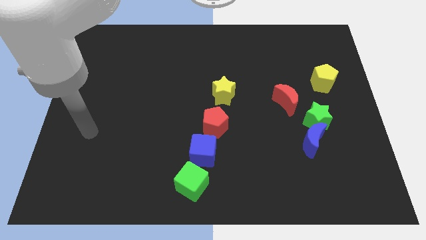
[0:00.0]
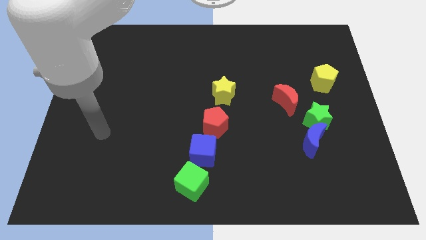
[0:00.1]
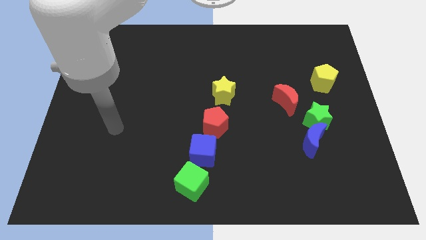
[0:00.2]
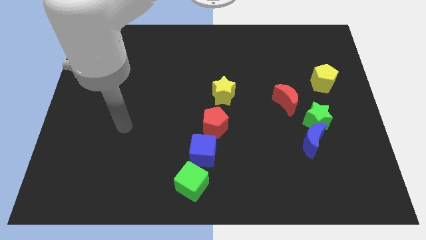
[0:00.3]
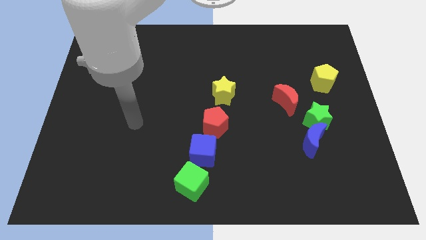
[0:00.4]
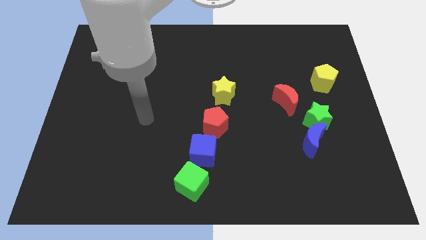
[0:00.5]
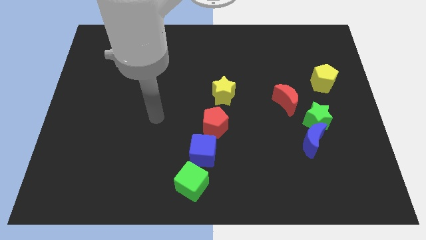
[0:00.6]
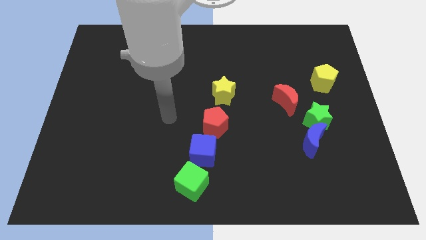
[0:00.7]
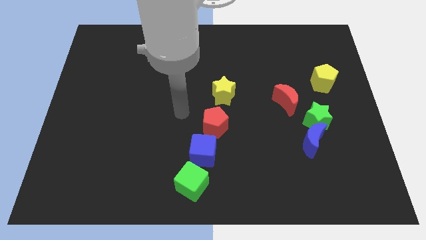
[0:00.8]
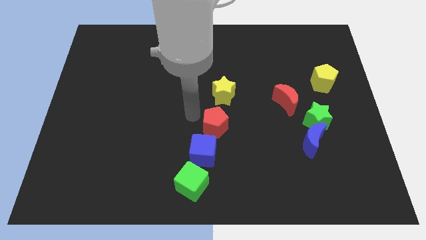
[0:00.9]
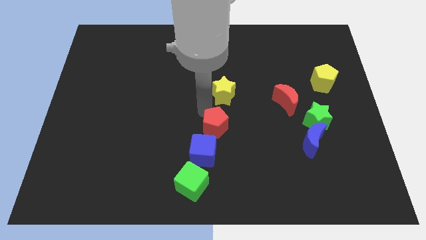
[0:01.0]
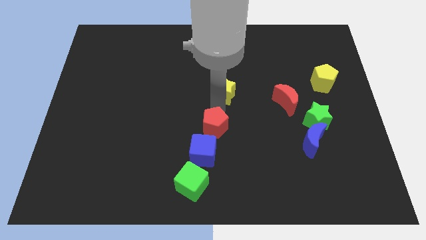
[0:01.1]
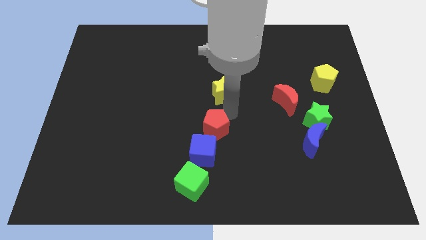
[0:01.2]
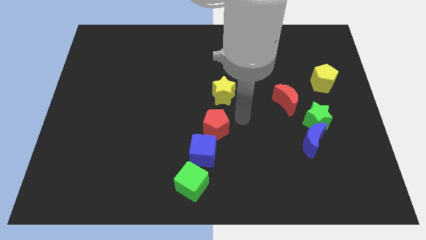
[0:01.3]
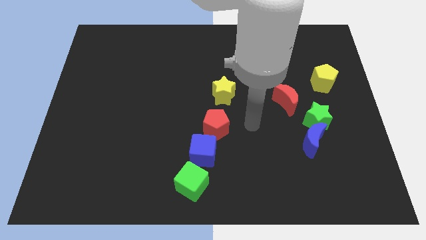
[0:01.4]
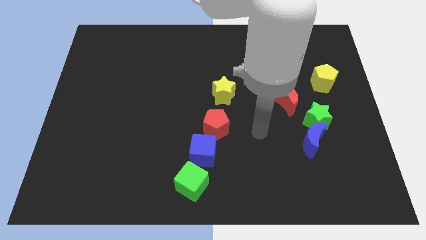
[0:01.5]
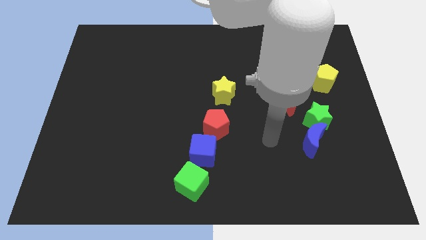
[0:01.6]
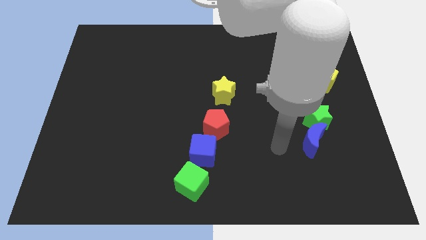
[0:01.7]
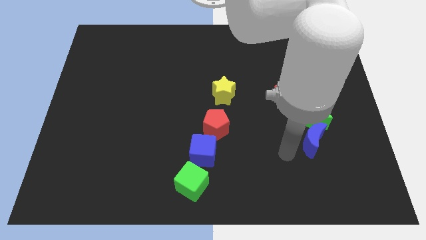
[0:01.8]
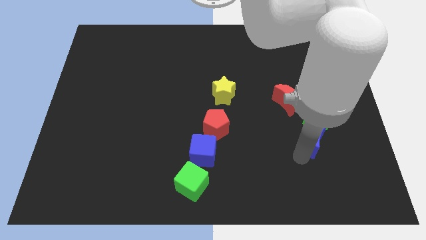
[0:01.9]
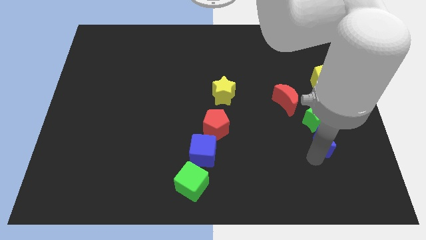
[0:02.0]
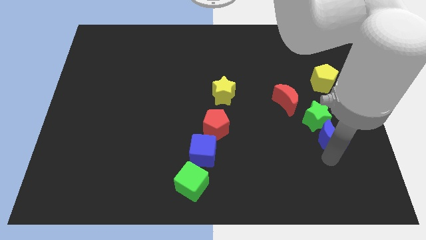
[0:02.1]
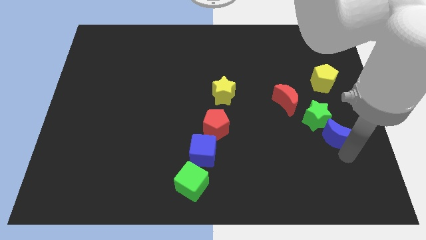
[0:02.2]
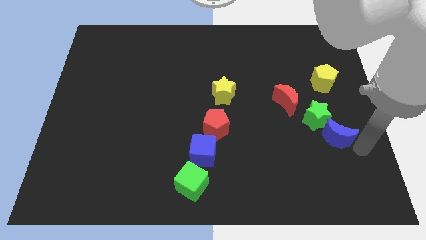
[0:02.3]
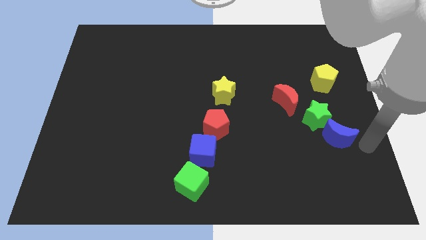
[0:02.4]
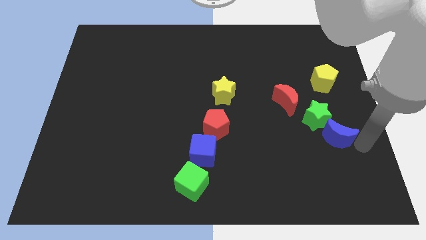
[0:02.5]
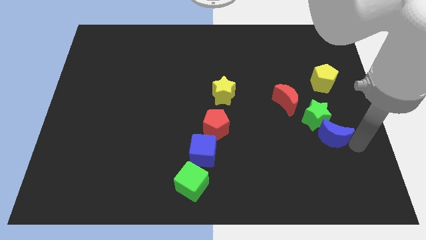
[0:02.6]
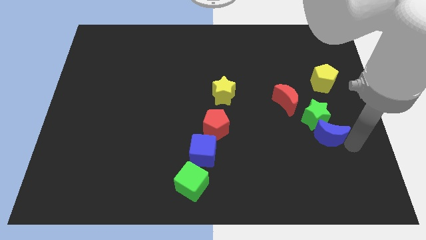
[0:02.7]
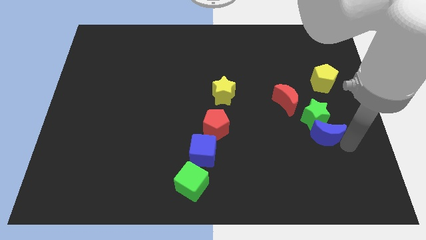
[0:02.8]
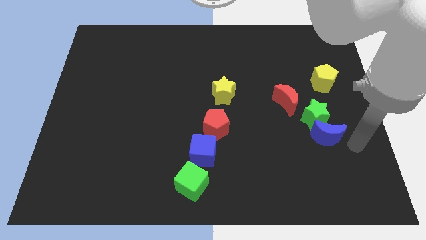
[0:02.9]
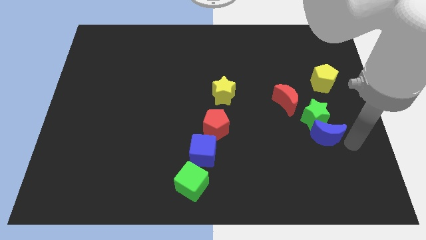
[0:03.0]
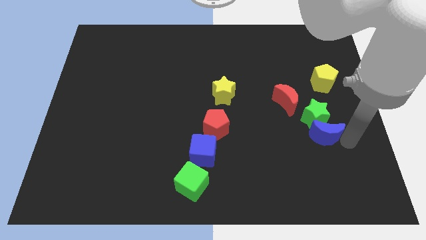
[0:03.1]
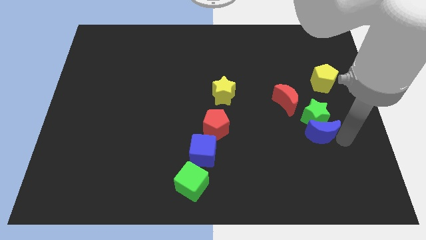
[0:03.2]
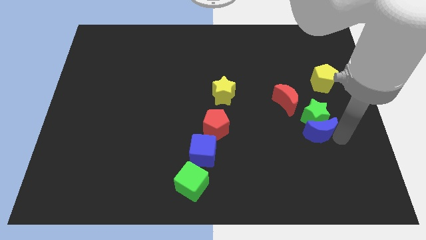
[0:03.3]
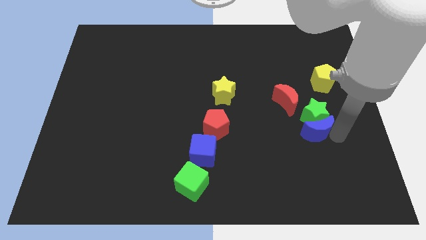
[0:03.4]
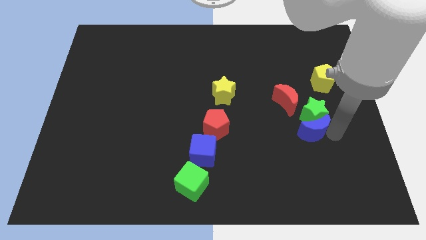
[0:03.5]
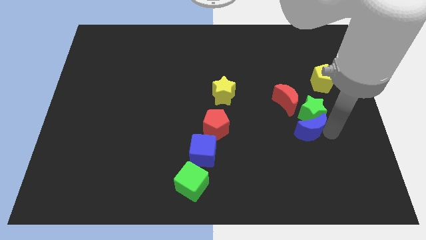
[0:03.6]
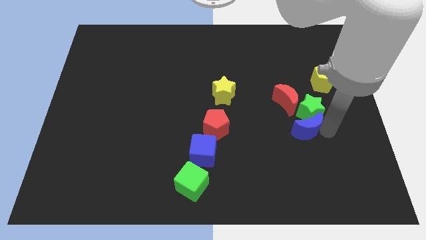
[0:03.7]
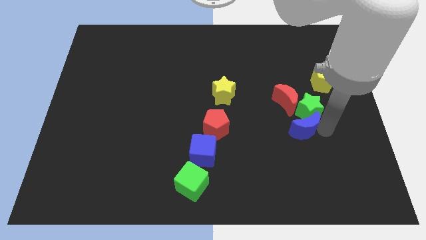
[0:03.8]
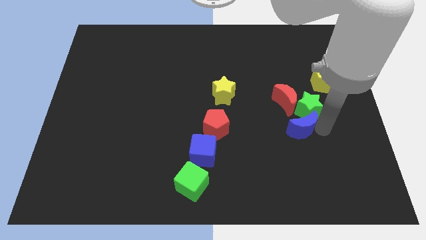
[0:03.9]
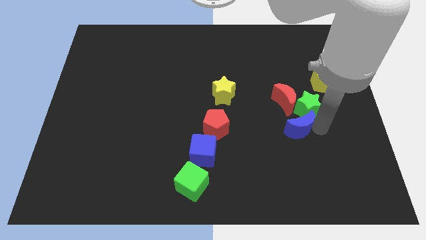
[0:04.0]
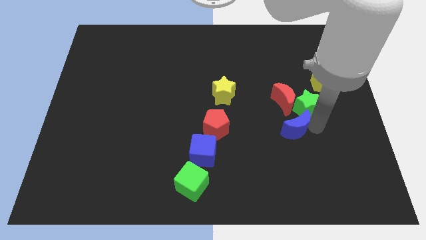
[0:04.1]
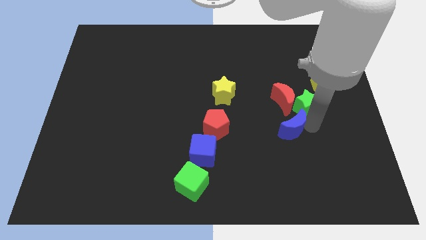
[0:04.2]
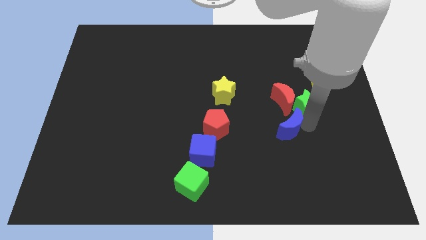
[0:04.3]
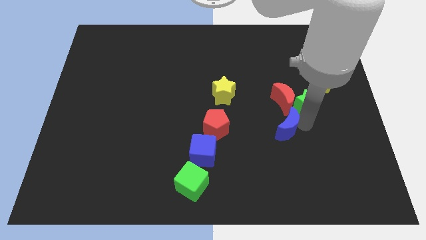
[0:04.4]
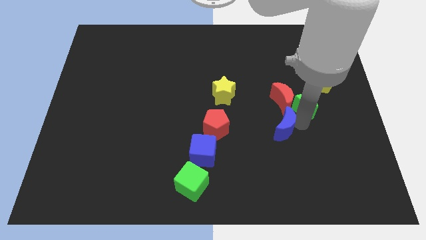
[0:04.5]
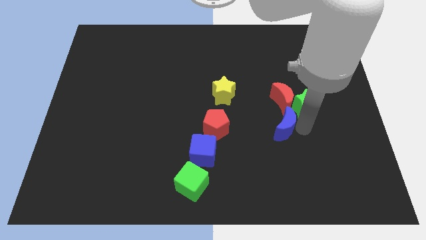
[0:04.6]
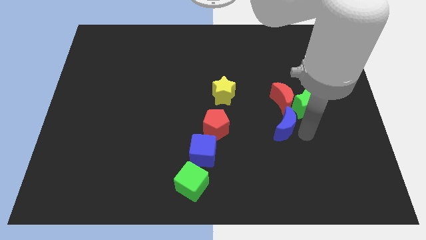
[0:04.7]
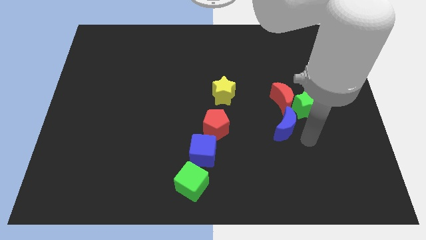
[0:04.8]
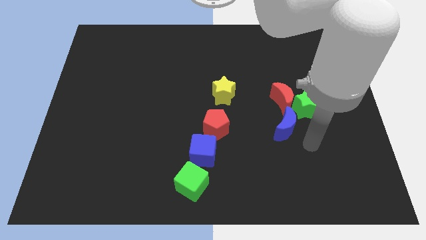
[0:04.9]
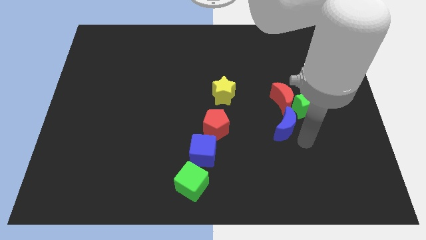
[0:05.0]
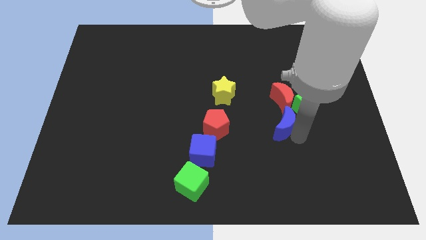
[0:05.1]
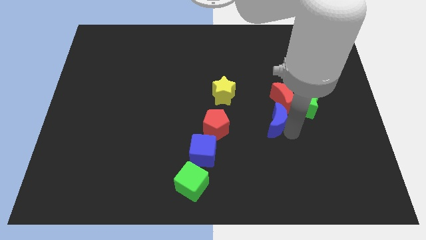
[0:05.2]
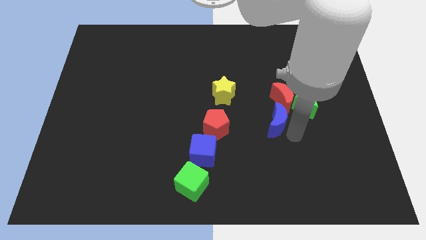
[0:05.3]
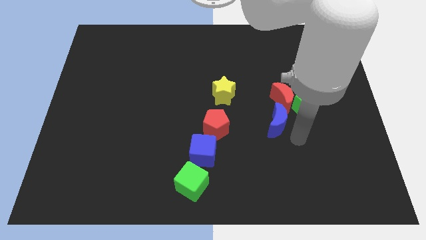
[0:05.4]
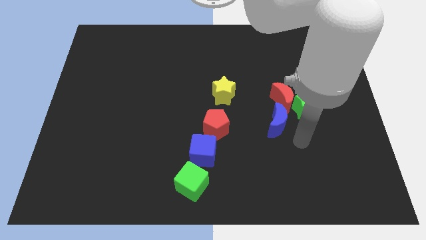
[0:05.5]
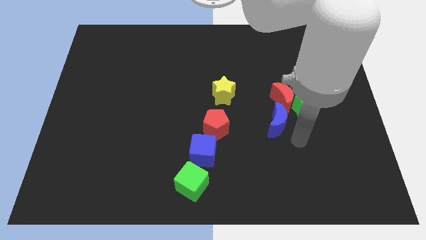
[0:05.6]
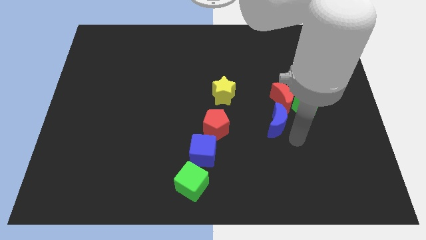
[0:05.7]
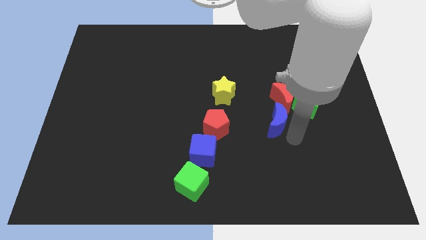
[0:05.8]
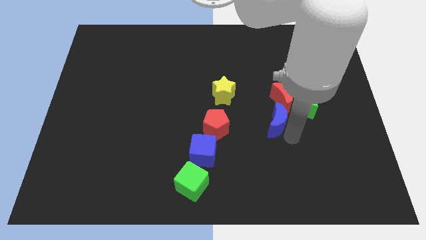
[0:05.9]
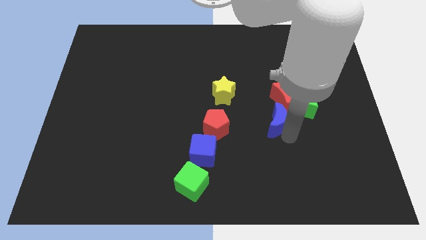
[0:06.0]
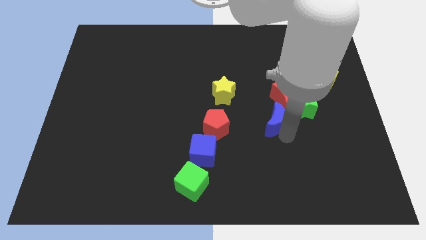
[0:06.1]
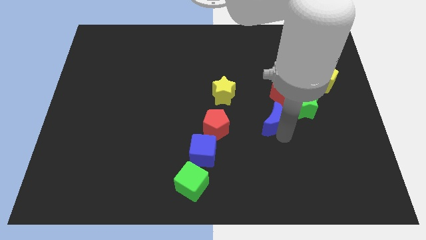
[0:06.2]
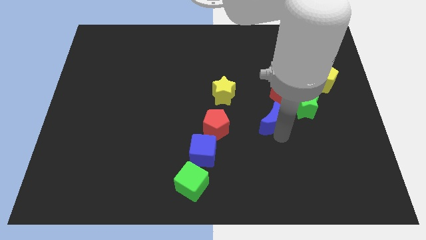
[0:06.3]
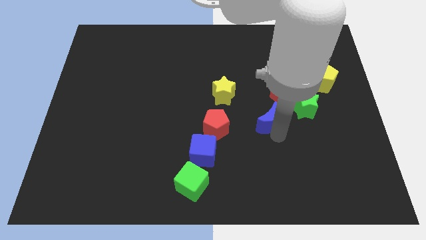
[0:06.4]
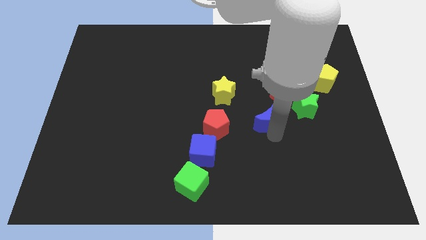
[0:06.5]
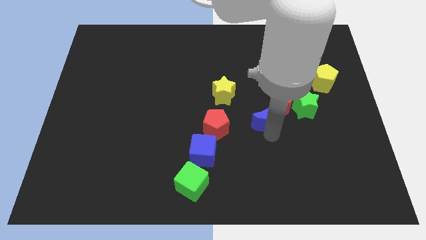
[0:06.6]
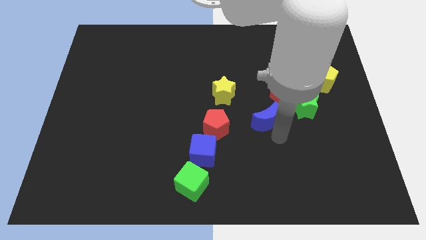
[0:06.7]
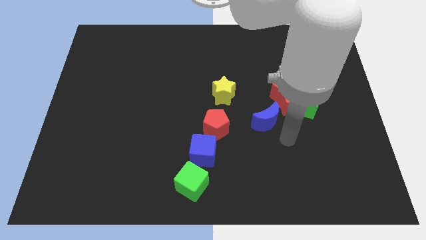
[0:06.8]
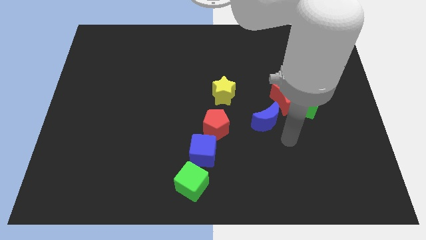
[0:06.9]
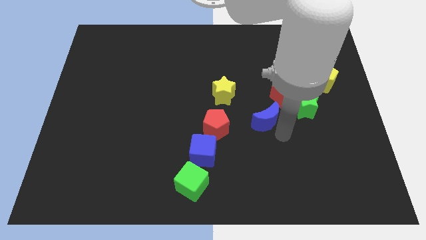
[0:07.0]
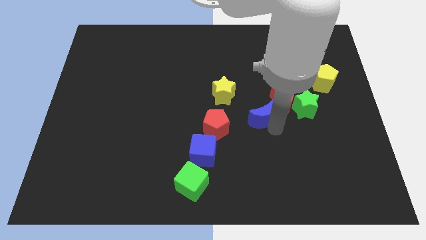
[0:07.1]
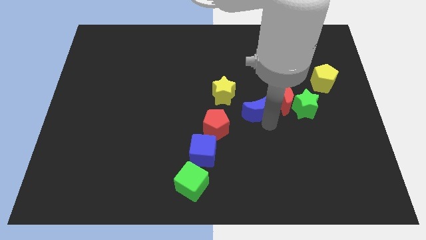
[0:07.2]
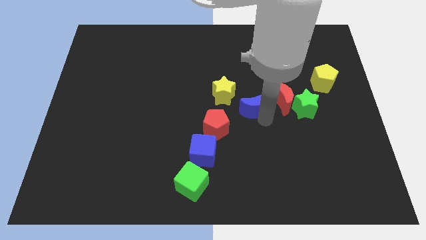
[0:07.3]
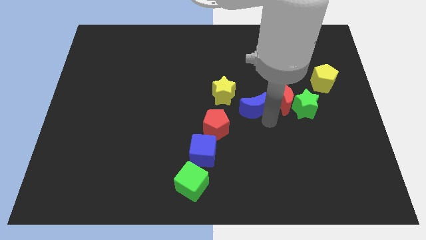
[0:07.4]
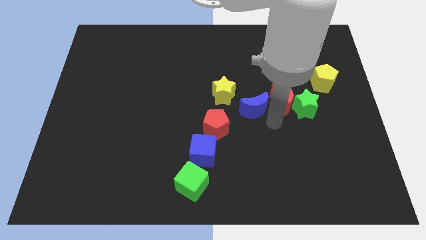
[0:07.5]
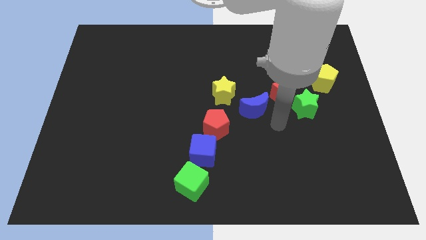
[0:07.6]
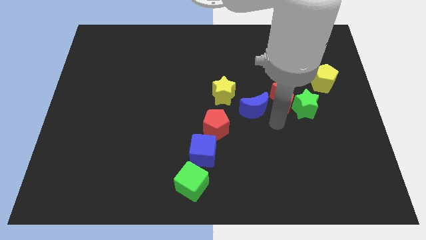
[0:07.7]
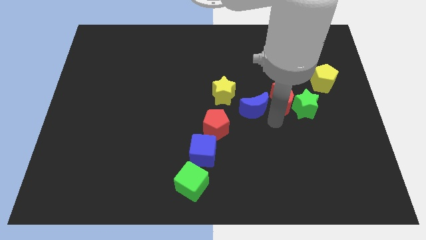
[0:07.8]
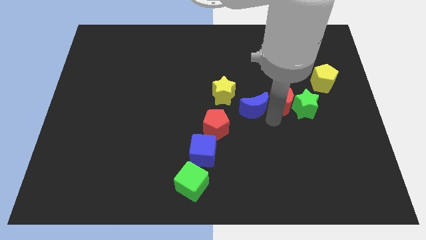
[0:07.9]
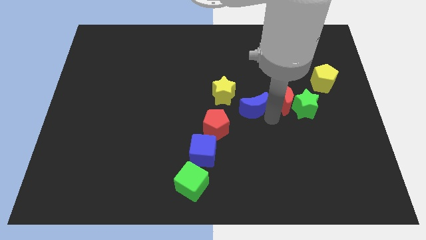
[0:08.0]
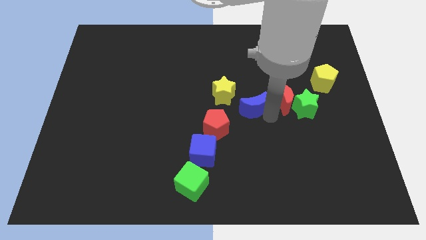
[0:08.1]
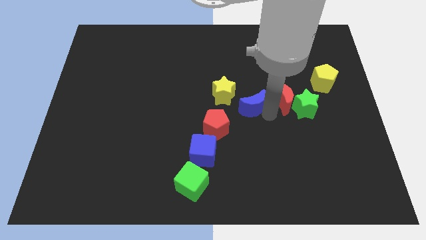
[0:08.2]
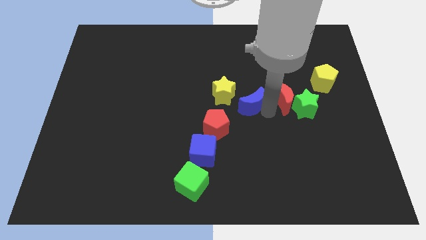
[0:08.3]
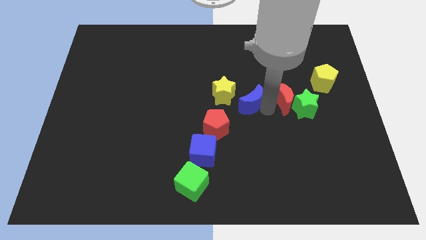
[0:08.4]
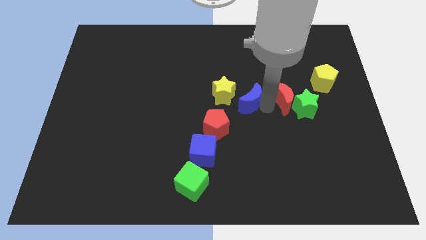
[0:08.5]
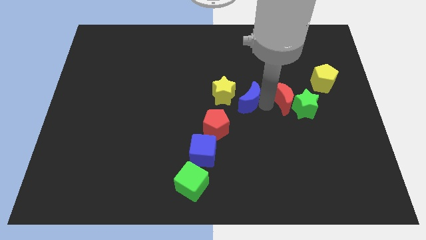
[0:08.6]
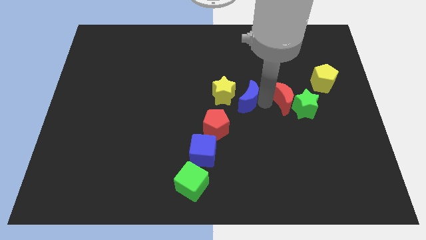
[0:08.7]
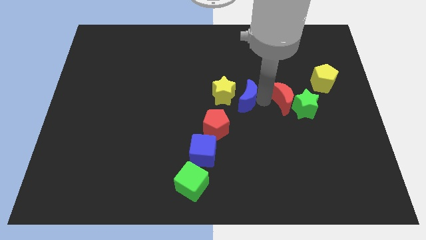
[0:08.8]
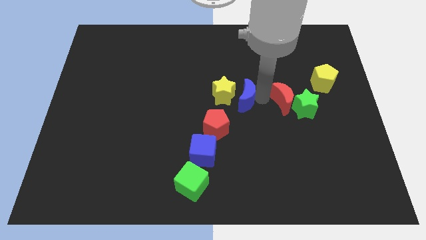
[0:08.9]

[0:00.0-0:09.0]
put the blue moon to the yellow star
